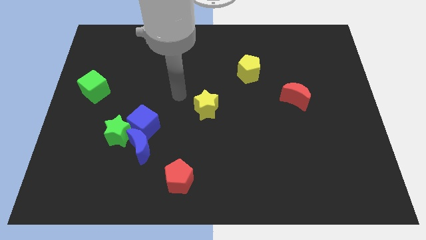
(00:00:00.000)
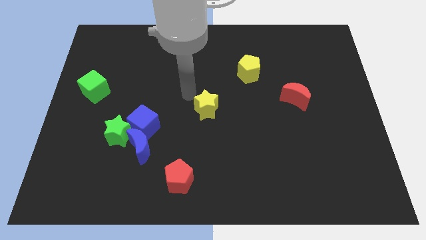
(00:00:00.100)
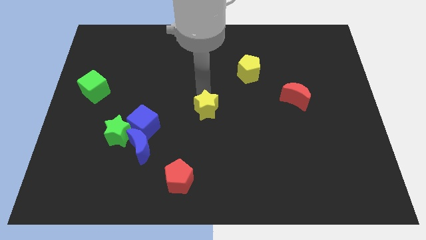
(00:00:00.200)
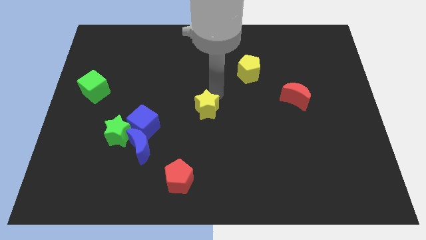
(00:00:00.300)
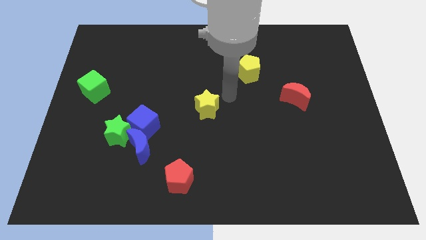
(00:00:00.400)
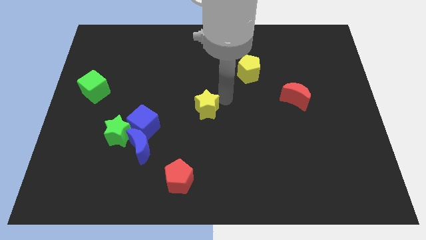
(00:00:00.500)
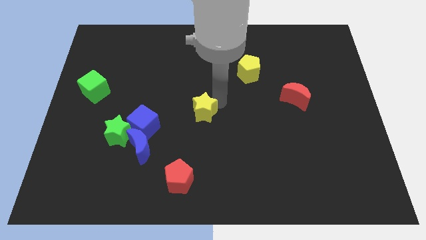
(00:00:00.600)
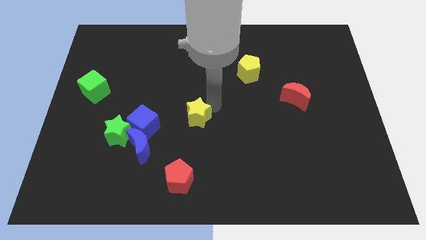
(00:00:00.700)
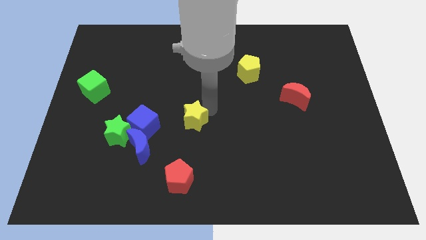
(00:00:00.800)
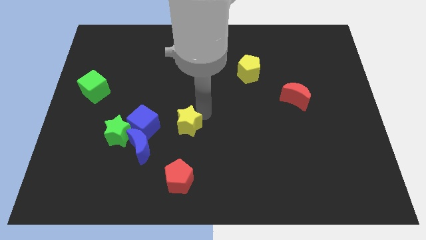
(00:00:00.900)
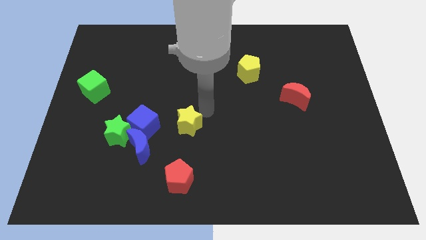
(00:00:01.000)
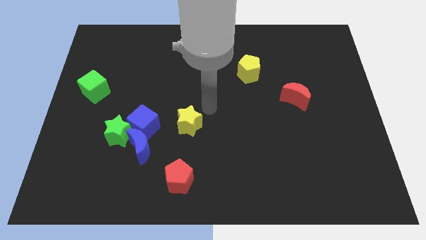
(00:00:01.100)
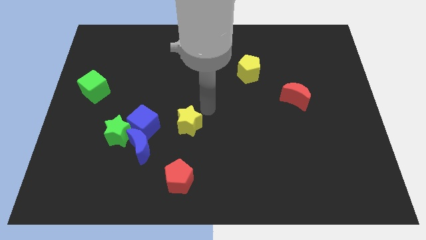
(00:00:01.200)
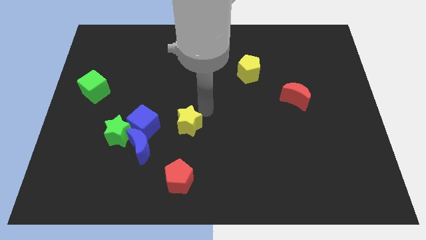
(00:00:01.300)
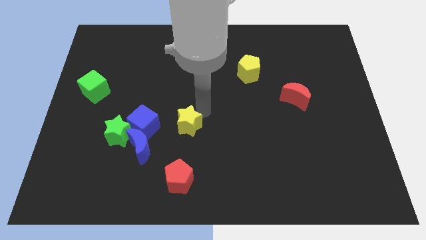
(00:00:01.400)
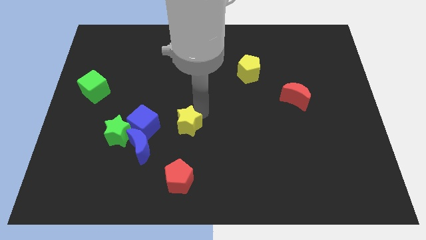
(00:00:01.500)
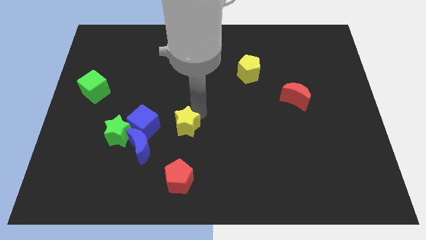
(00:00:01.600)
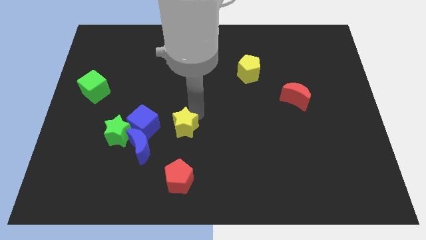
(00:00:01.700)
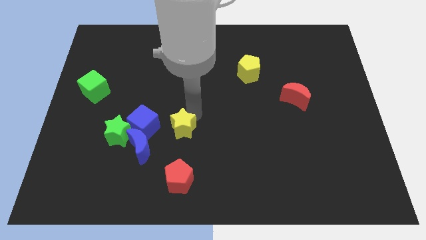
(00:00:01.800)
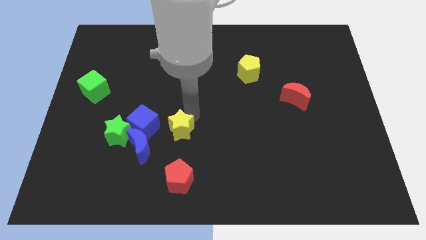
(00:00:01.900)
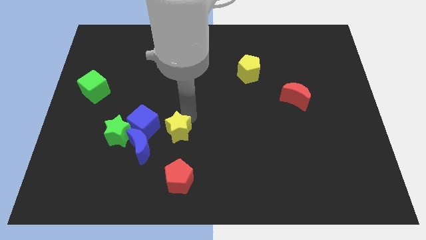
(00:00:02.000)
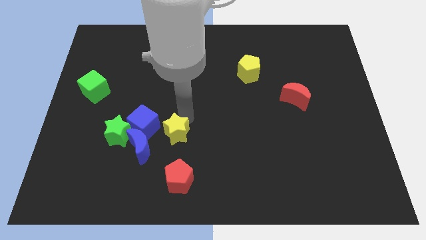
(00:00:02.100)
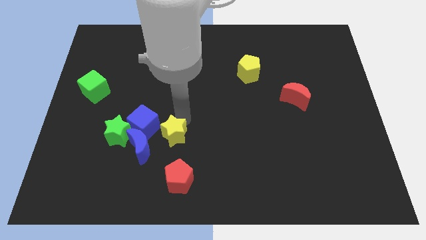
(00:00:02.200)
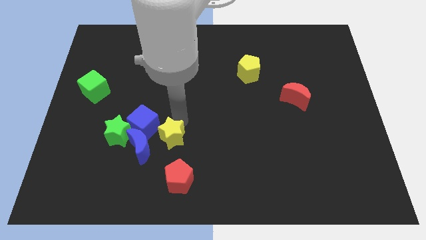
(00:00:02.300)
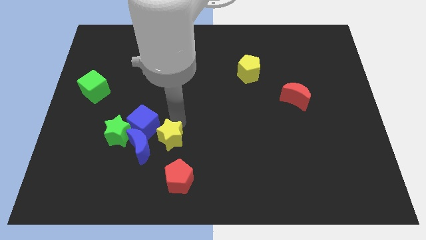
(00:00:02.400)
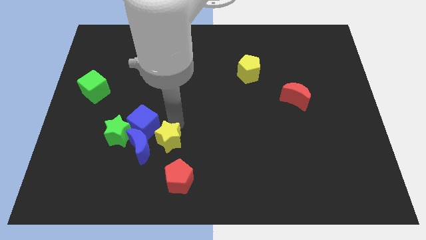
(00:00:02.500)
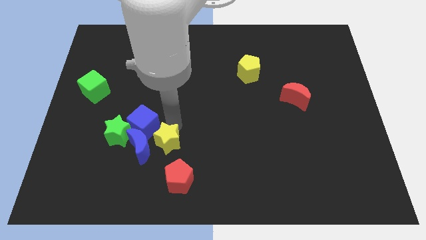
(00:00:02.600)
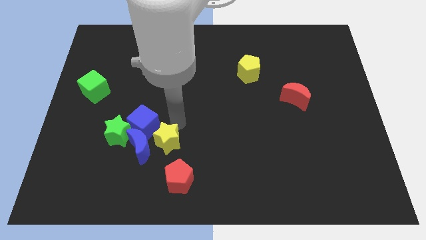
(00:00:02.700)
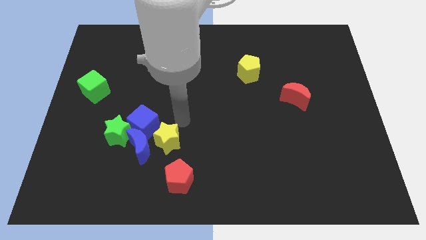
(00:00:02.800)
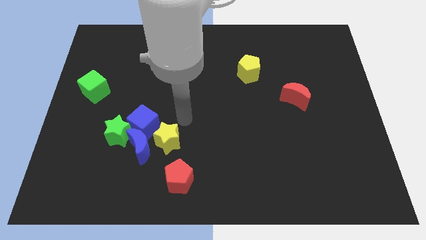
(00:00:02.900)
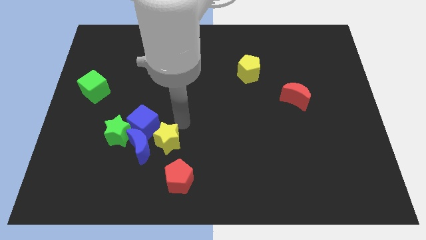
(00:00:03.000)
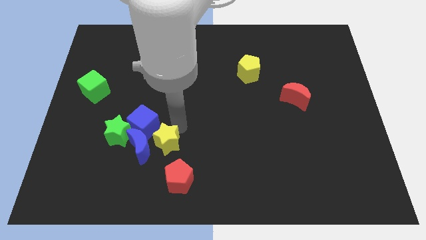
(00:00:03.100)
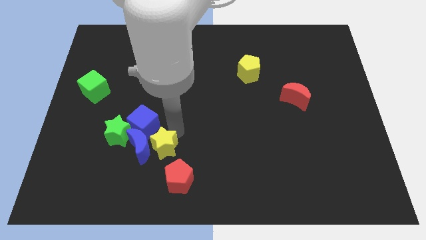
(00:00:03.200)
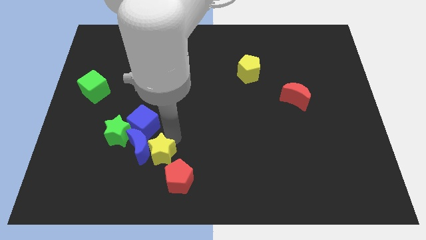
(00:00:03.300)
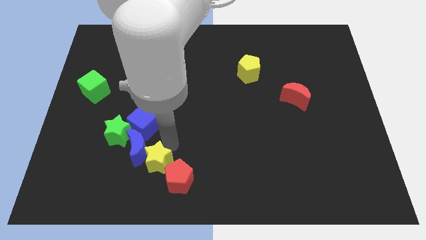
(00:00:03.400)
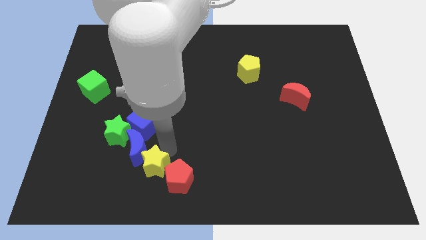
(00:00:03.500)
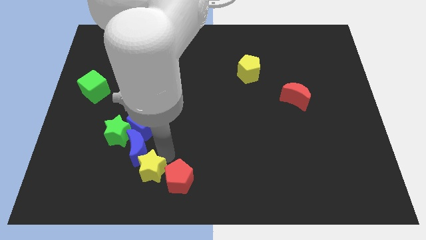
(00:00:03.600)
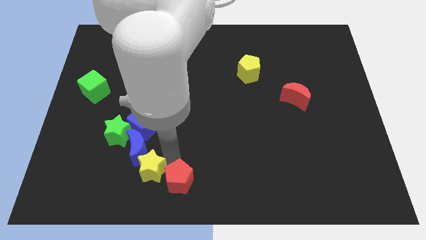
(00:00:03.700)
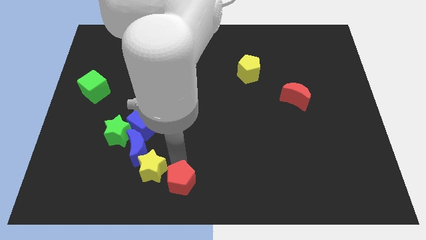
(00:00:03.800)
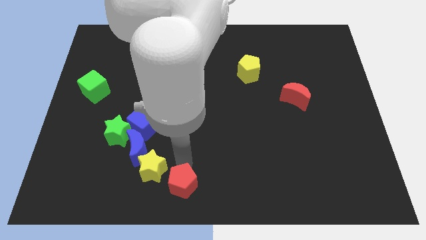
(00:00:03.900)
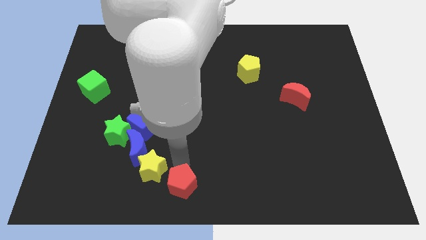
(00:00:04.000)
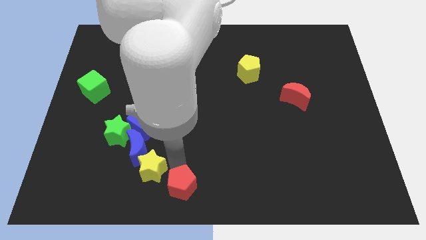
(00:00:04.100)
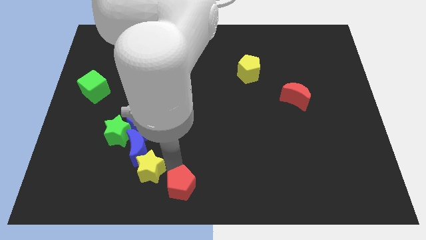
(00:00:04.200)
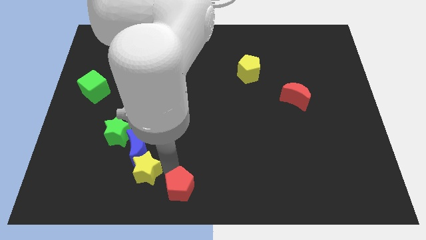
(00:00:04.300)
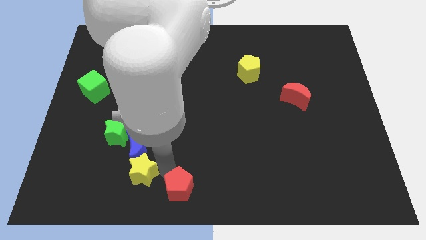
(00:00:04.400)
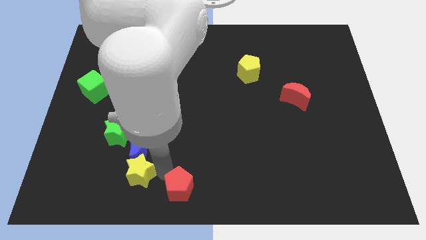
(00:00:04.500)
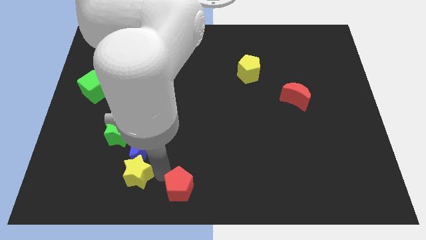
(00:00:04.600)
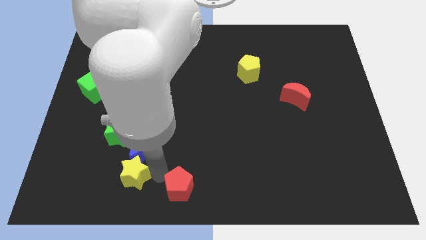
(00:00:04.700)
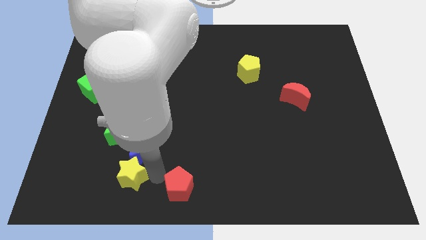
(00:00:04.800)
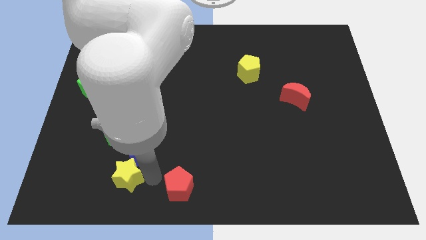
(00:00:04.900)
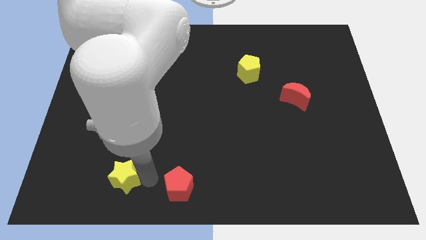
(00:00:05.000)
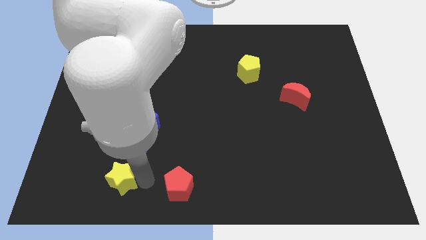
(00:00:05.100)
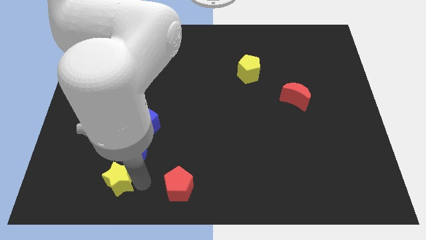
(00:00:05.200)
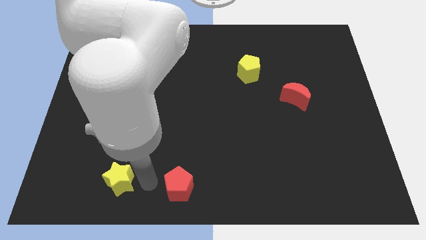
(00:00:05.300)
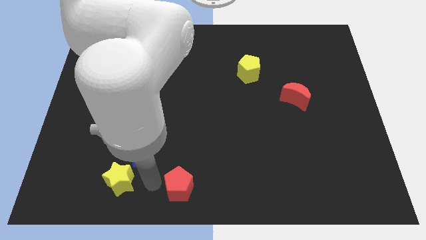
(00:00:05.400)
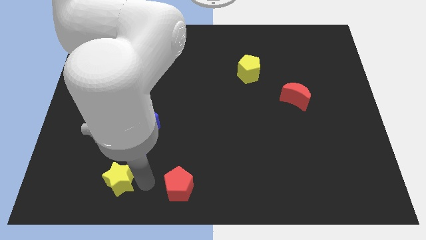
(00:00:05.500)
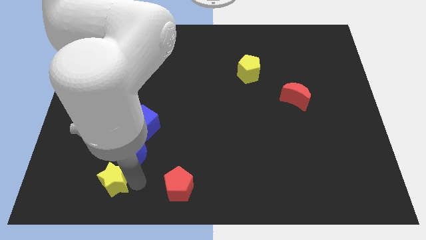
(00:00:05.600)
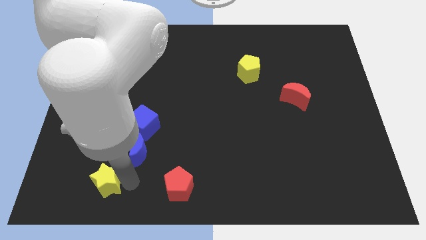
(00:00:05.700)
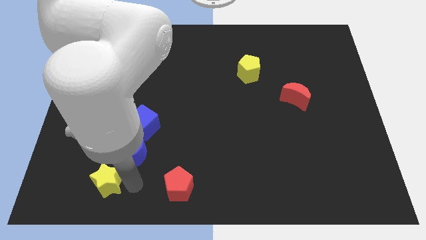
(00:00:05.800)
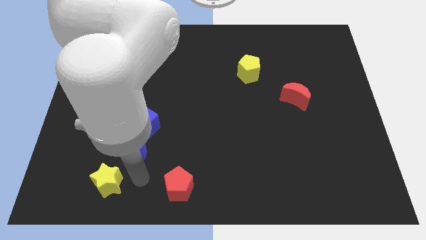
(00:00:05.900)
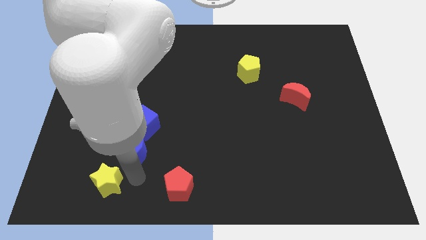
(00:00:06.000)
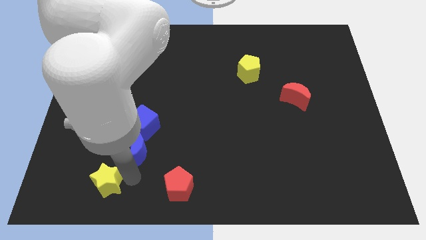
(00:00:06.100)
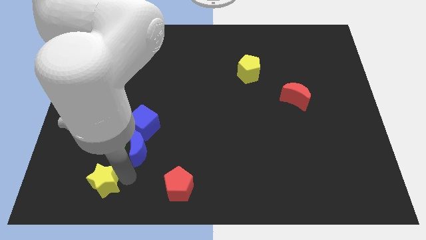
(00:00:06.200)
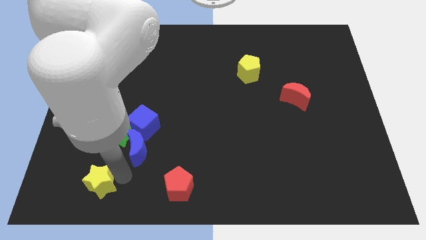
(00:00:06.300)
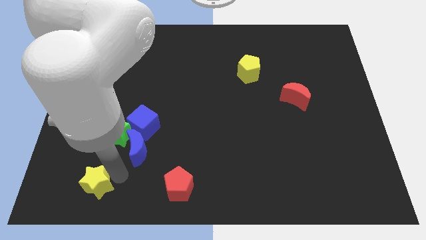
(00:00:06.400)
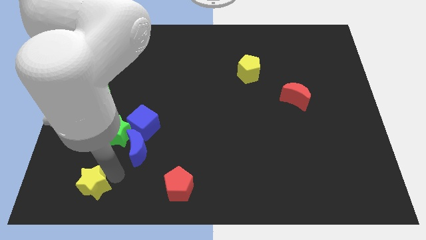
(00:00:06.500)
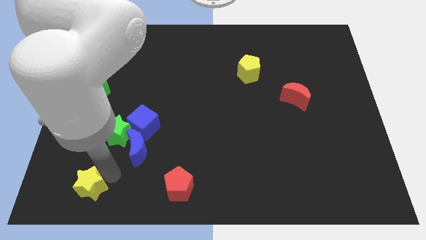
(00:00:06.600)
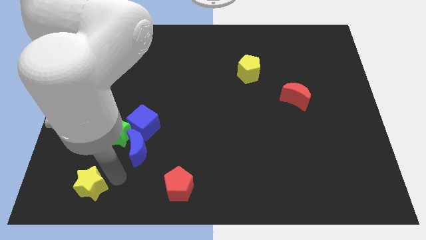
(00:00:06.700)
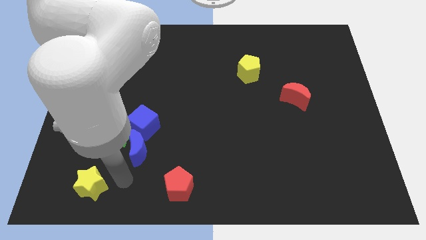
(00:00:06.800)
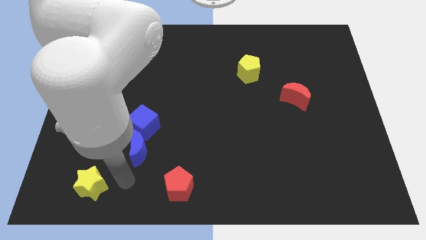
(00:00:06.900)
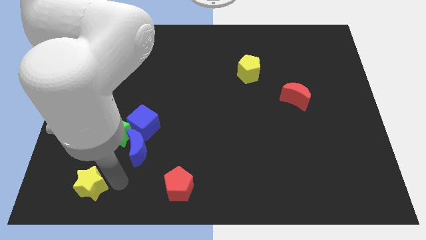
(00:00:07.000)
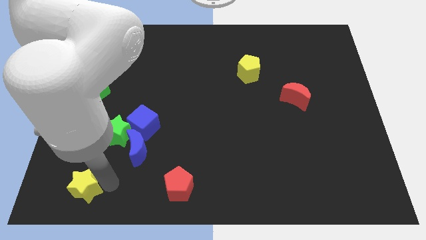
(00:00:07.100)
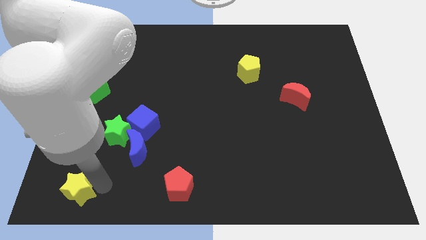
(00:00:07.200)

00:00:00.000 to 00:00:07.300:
put the yellow star to the bottom left of the board
